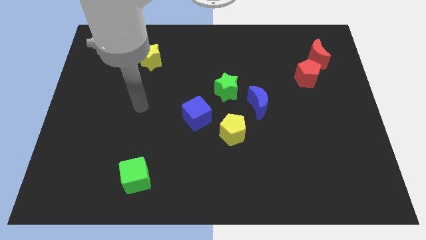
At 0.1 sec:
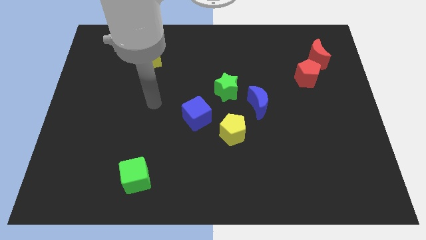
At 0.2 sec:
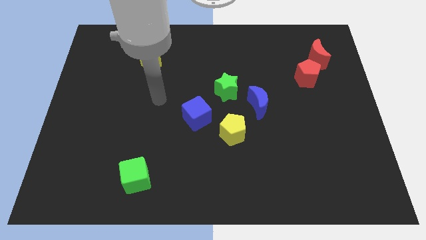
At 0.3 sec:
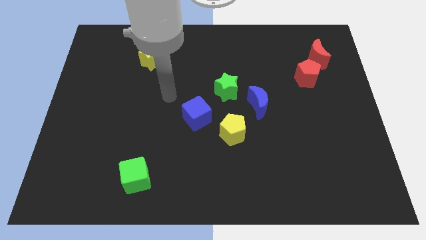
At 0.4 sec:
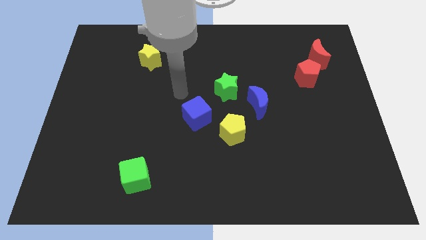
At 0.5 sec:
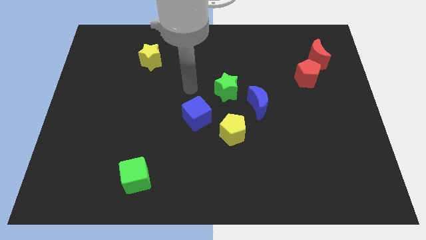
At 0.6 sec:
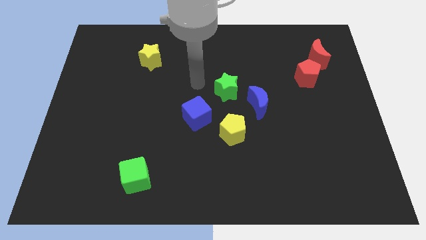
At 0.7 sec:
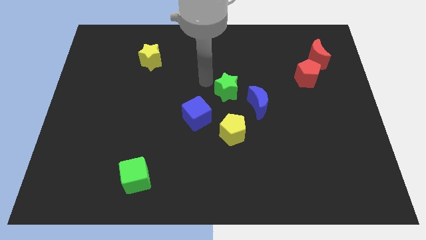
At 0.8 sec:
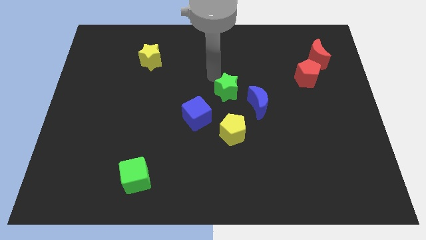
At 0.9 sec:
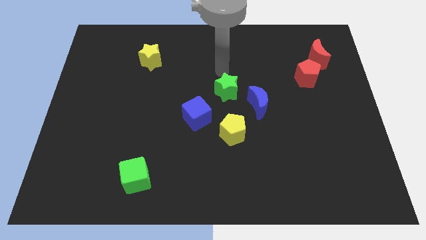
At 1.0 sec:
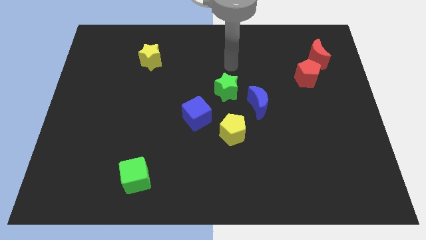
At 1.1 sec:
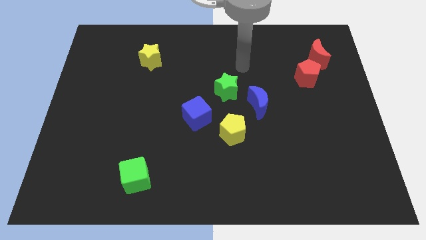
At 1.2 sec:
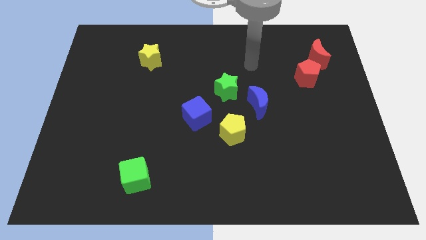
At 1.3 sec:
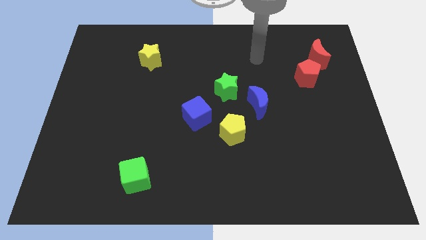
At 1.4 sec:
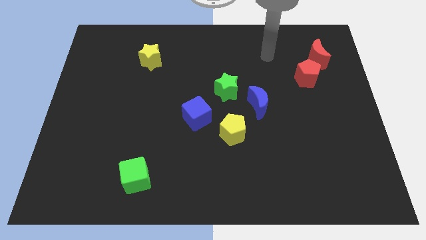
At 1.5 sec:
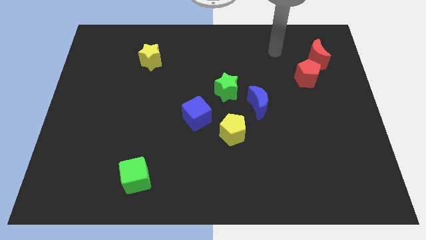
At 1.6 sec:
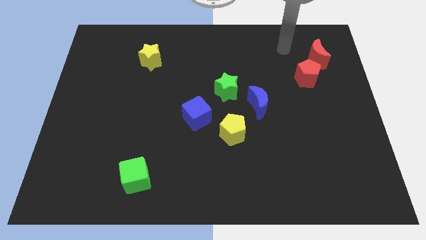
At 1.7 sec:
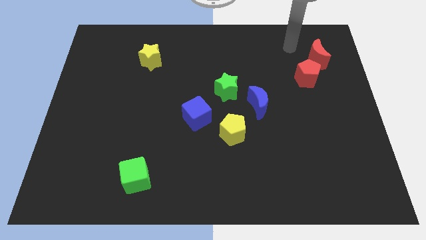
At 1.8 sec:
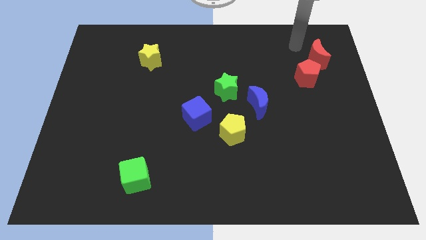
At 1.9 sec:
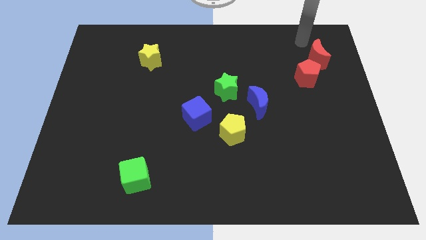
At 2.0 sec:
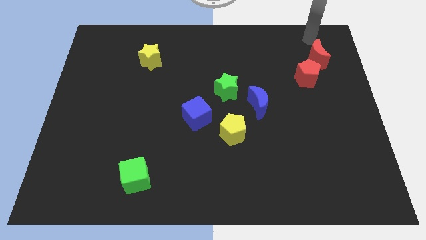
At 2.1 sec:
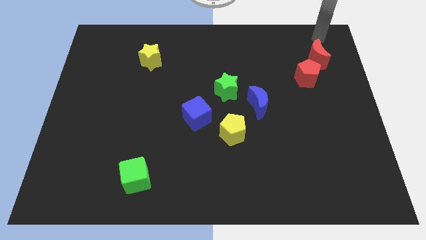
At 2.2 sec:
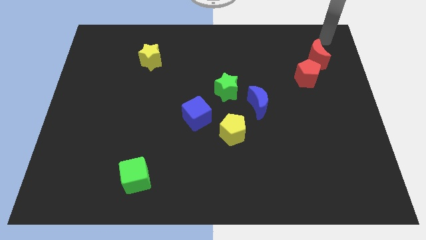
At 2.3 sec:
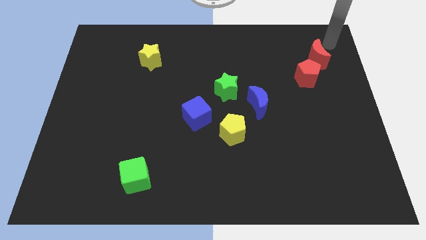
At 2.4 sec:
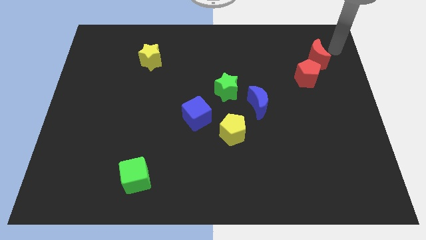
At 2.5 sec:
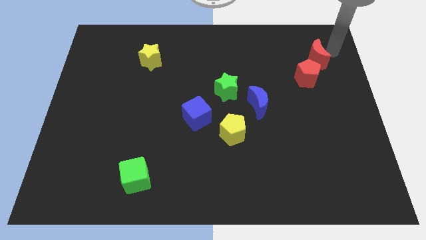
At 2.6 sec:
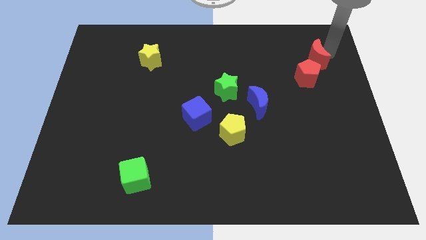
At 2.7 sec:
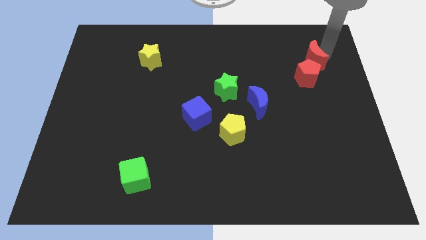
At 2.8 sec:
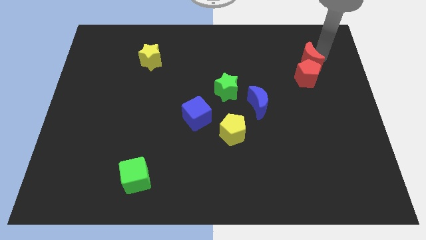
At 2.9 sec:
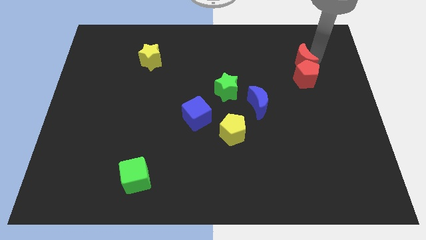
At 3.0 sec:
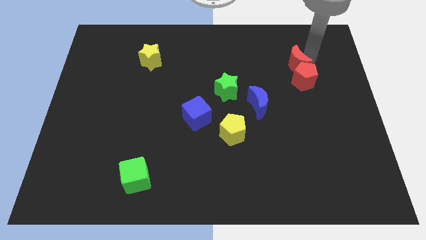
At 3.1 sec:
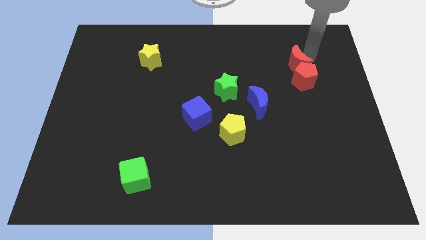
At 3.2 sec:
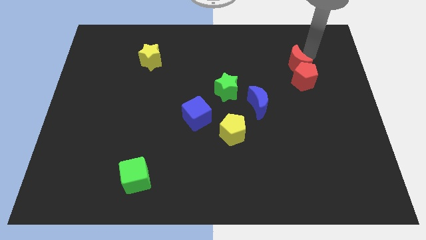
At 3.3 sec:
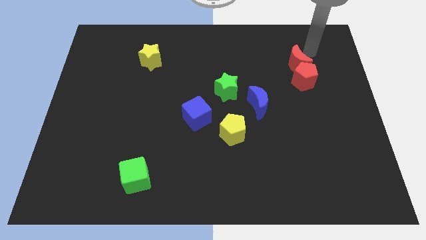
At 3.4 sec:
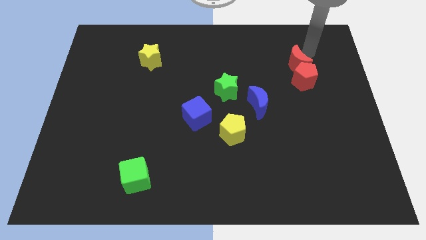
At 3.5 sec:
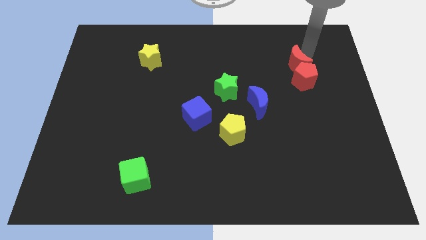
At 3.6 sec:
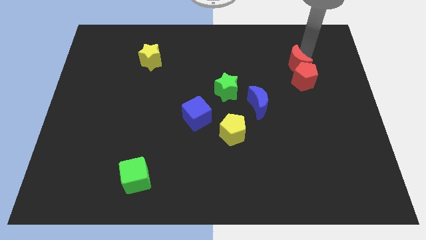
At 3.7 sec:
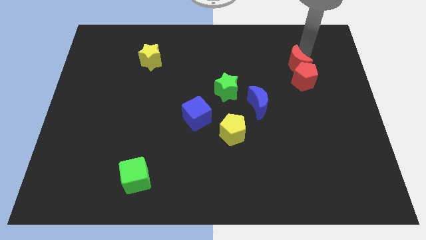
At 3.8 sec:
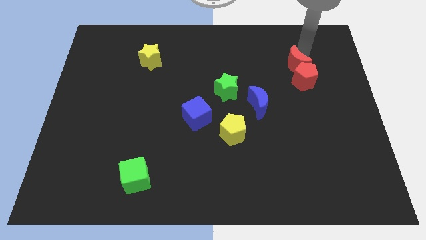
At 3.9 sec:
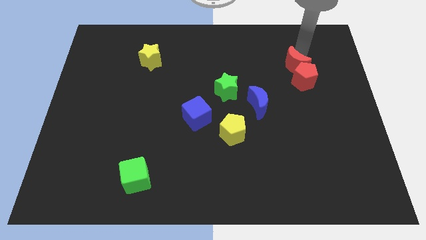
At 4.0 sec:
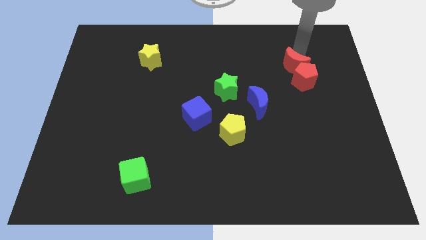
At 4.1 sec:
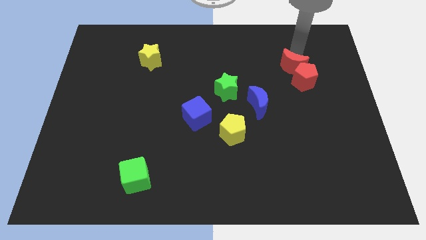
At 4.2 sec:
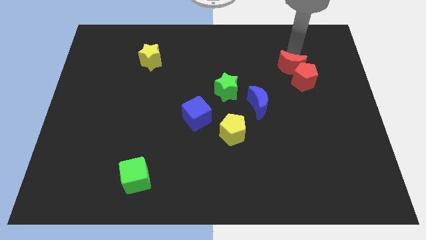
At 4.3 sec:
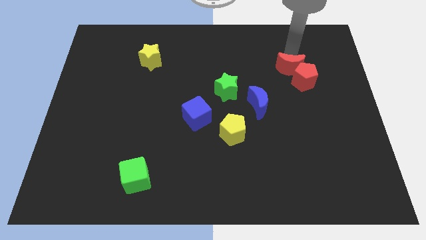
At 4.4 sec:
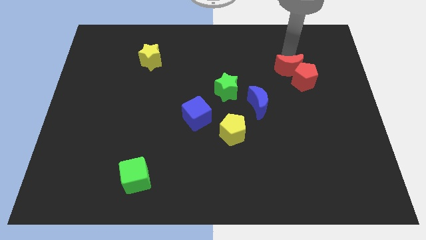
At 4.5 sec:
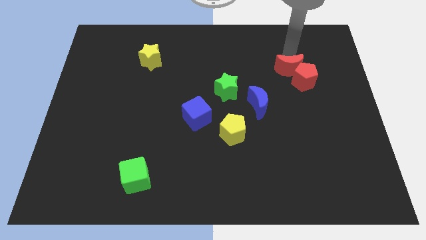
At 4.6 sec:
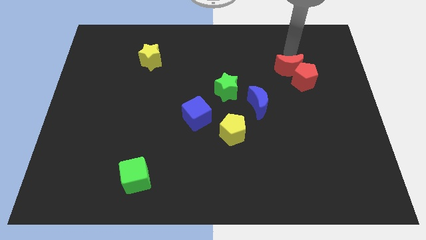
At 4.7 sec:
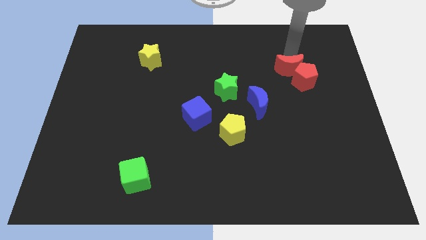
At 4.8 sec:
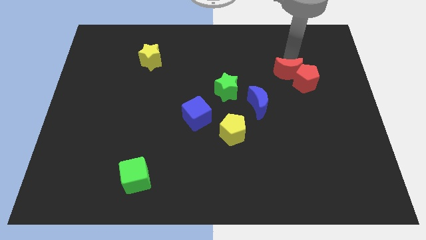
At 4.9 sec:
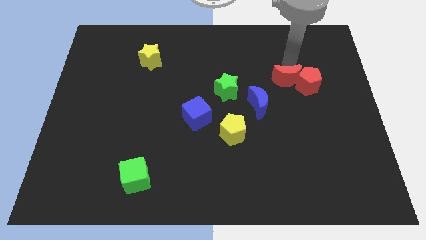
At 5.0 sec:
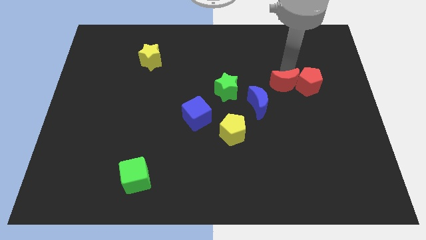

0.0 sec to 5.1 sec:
push the red moon to the bottom left of the red pentagon

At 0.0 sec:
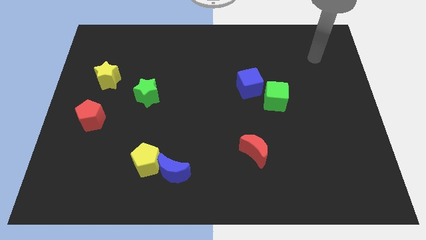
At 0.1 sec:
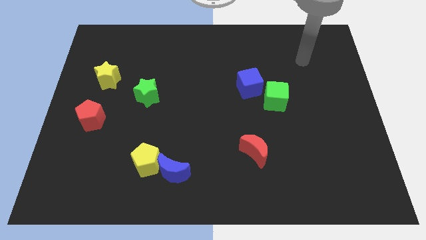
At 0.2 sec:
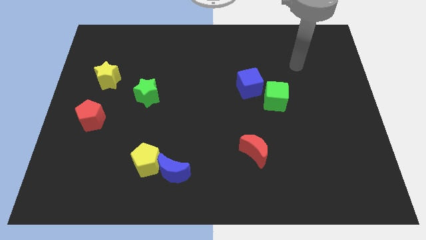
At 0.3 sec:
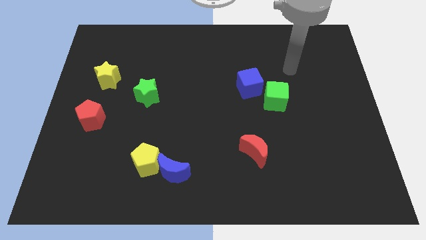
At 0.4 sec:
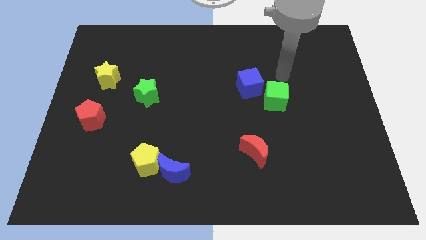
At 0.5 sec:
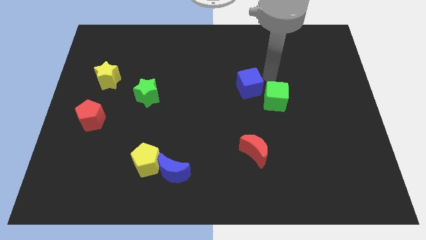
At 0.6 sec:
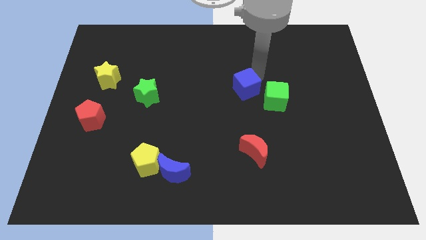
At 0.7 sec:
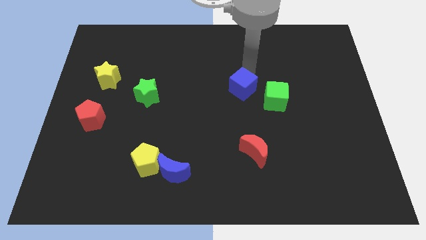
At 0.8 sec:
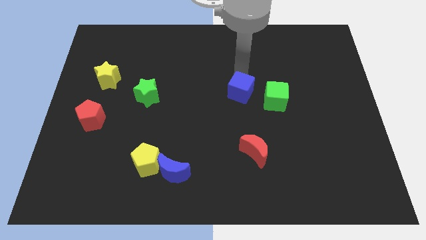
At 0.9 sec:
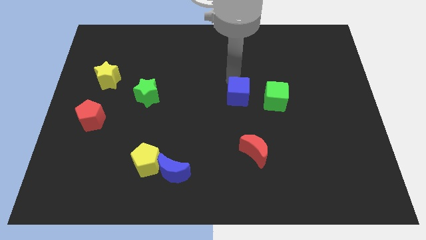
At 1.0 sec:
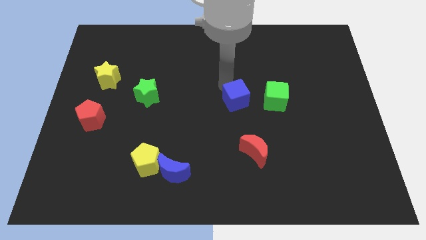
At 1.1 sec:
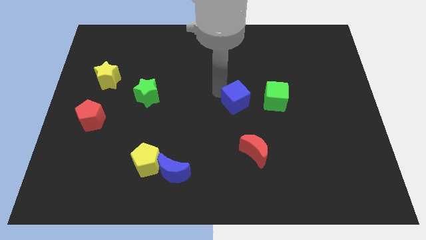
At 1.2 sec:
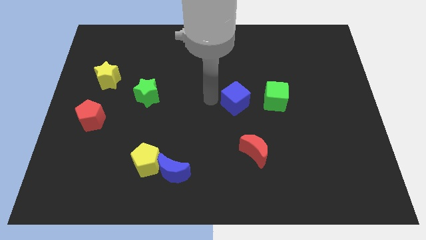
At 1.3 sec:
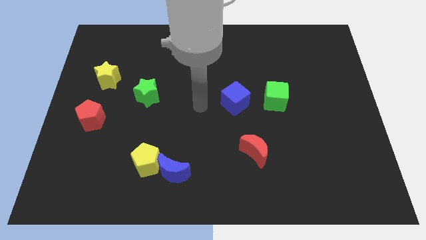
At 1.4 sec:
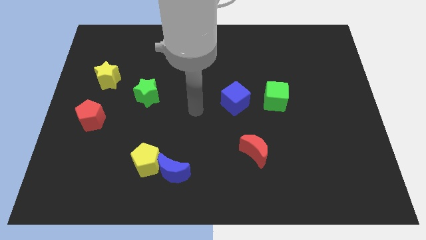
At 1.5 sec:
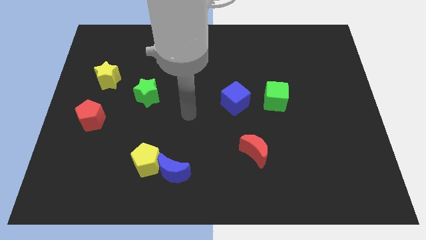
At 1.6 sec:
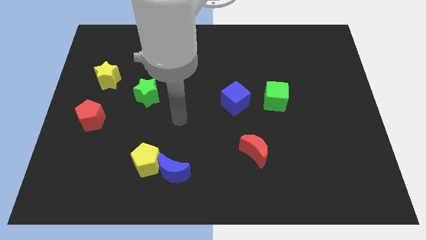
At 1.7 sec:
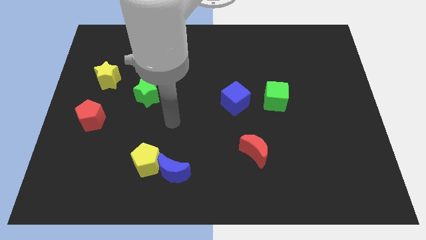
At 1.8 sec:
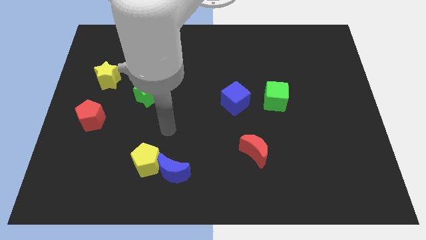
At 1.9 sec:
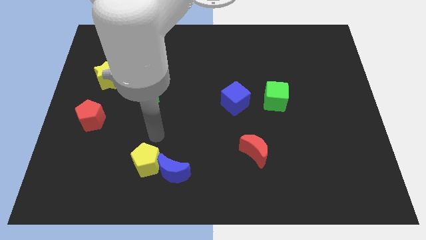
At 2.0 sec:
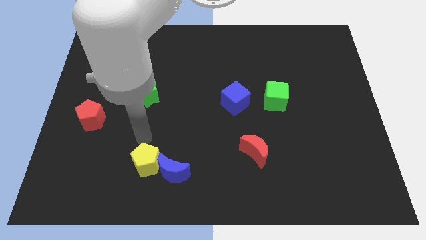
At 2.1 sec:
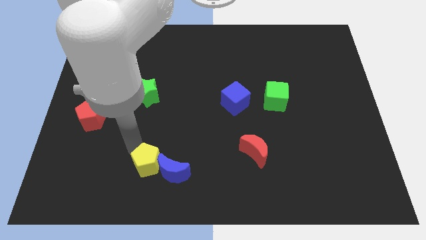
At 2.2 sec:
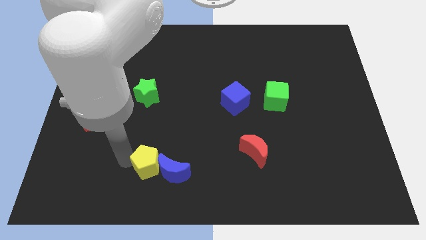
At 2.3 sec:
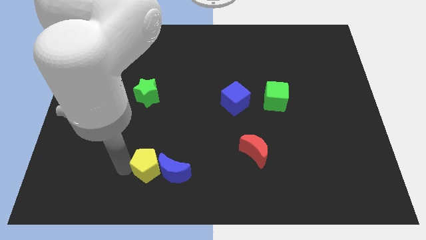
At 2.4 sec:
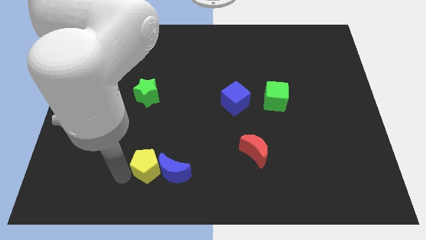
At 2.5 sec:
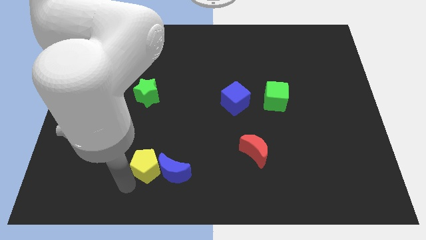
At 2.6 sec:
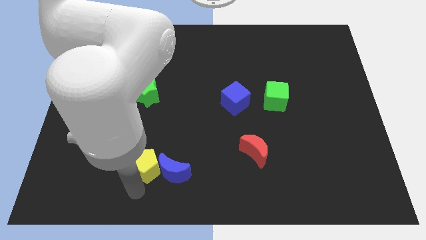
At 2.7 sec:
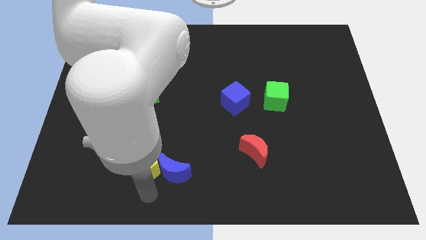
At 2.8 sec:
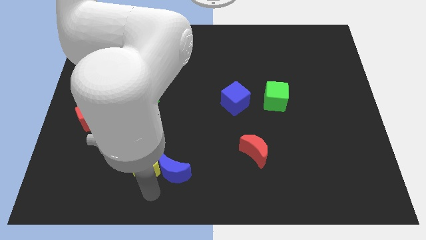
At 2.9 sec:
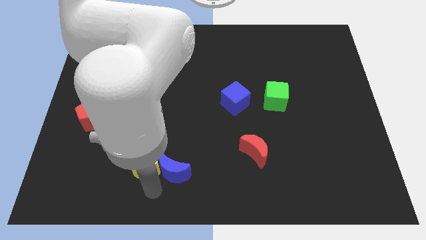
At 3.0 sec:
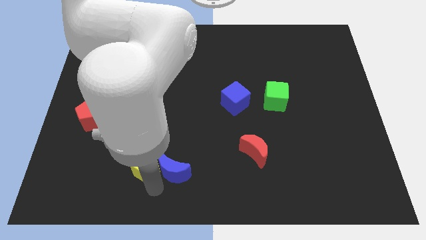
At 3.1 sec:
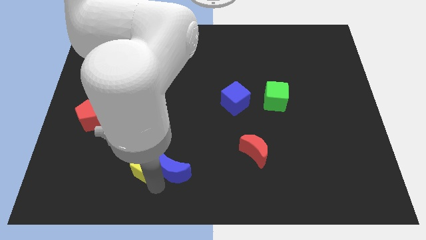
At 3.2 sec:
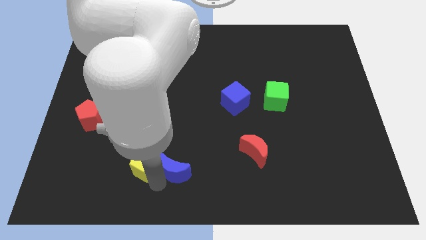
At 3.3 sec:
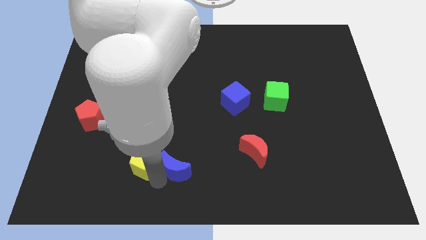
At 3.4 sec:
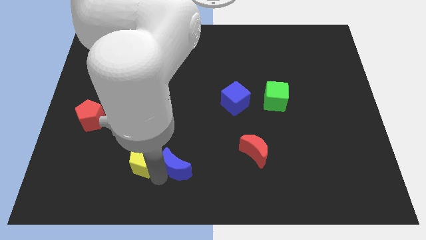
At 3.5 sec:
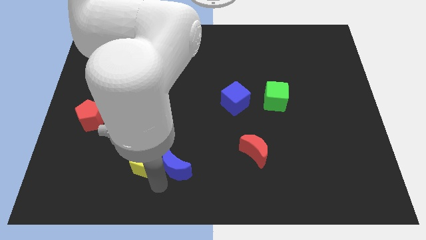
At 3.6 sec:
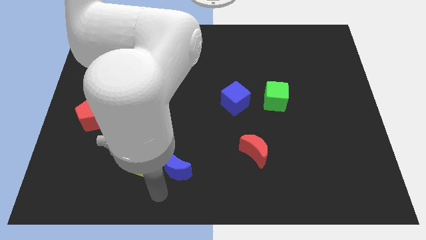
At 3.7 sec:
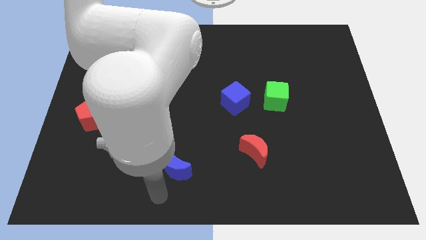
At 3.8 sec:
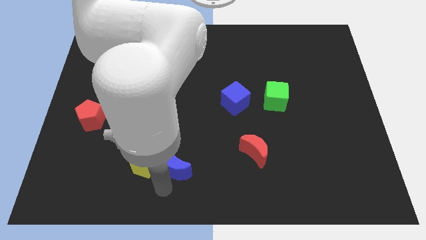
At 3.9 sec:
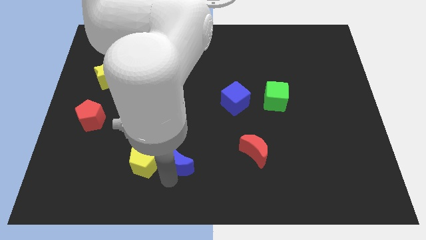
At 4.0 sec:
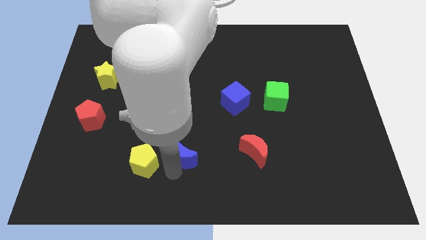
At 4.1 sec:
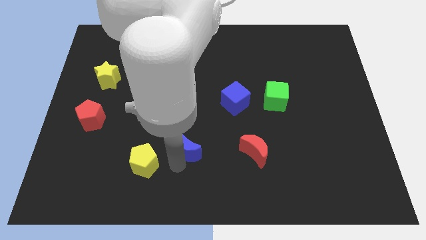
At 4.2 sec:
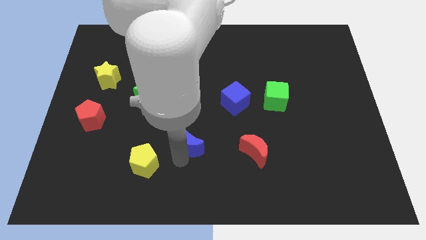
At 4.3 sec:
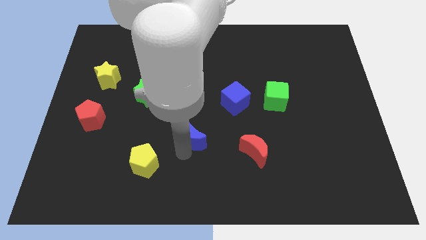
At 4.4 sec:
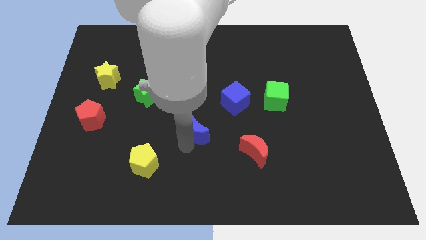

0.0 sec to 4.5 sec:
put the blue moon to the bottom left side of the blue cube
